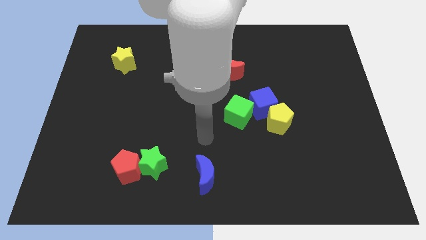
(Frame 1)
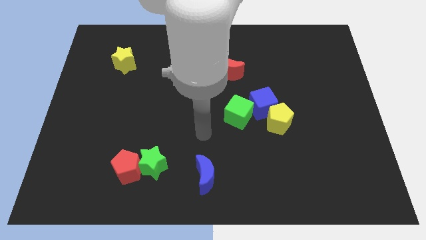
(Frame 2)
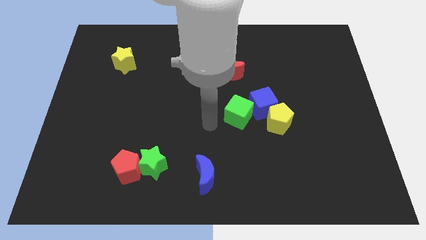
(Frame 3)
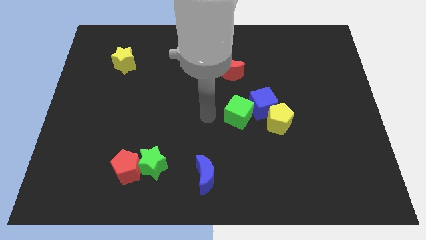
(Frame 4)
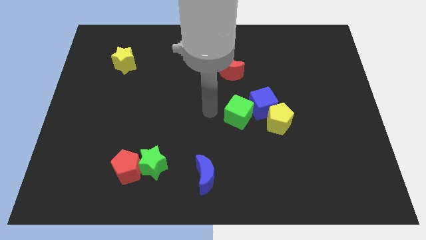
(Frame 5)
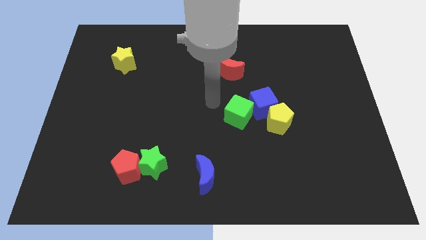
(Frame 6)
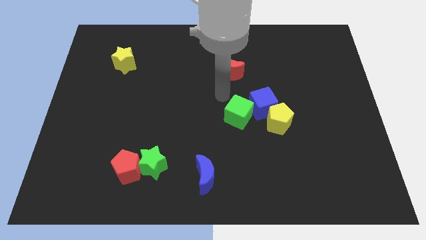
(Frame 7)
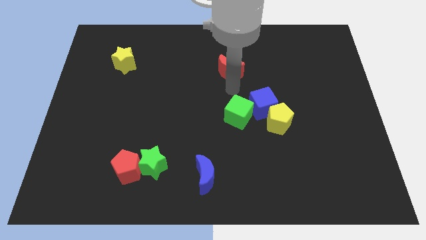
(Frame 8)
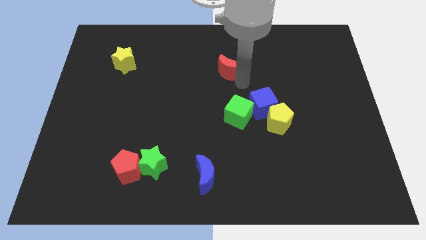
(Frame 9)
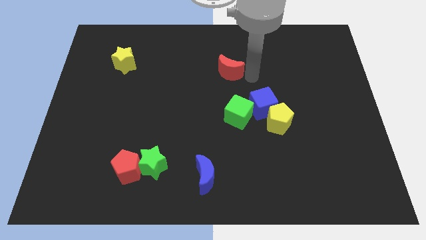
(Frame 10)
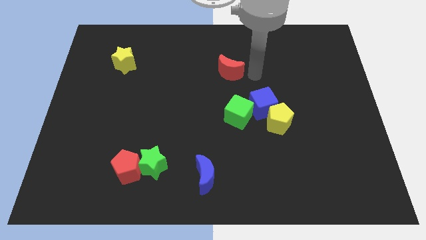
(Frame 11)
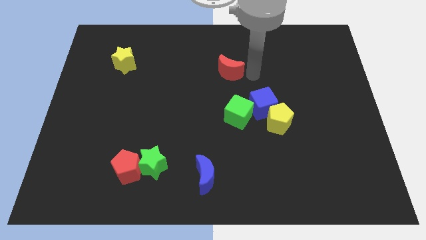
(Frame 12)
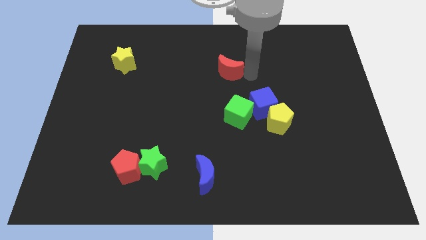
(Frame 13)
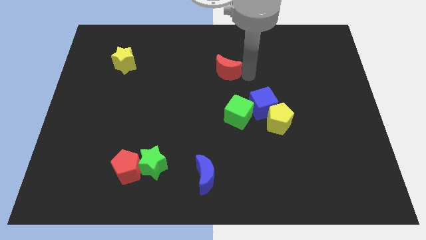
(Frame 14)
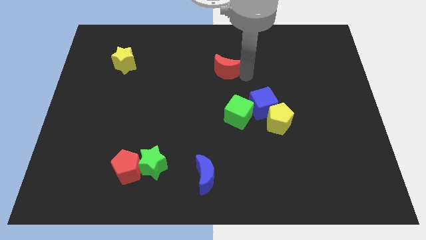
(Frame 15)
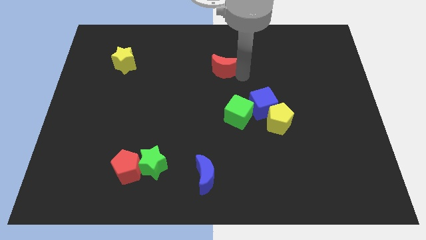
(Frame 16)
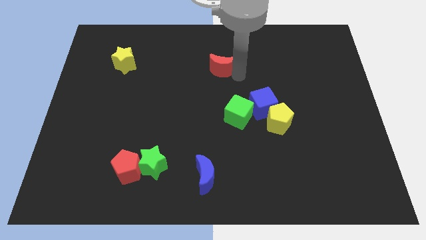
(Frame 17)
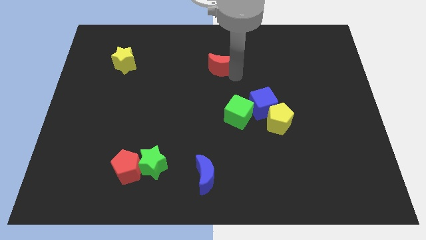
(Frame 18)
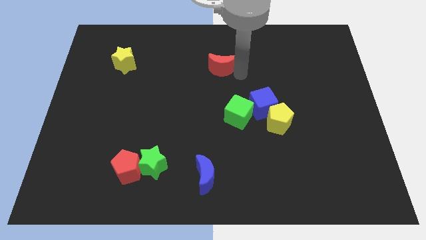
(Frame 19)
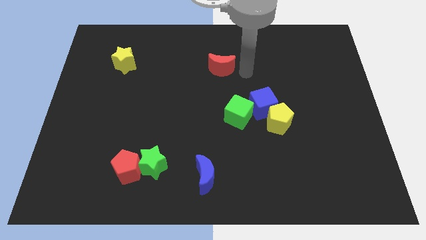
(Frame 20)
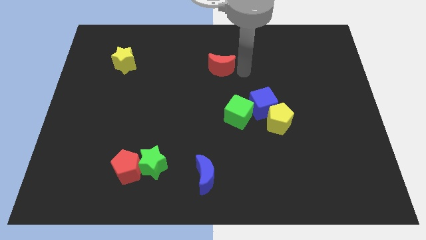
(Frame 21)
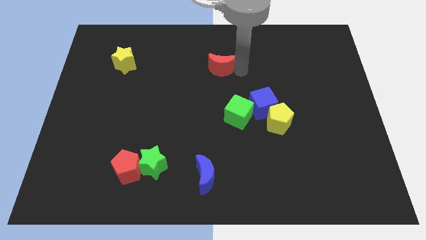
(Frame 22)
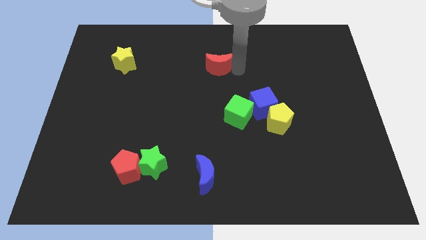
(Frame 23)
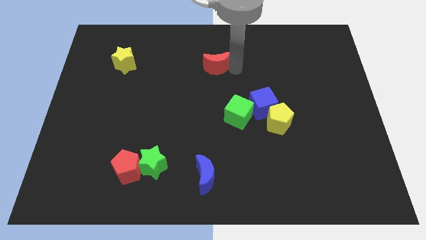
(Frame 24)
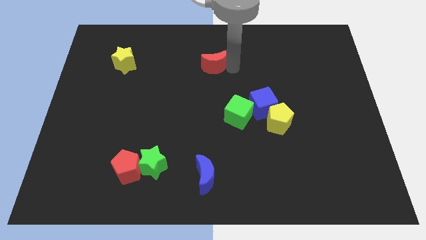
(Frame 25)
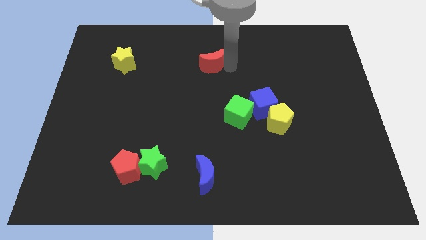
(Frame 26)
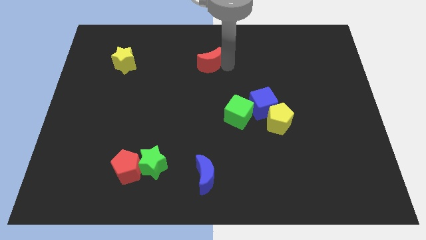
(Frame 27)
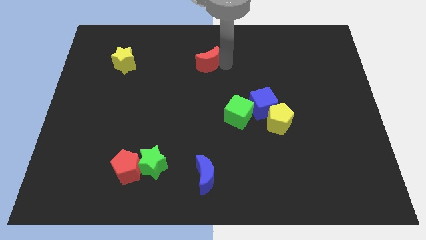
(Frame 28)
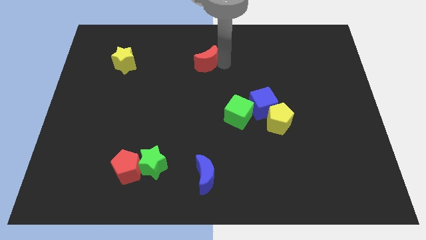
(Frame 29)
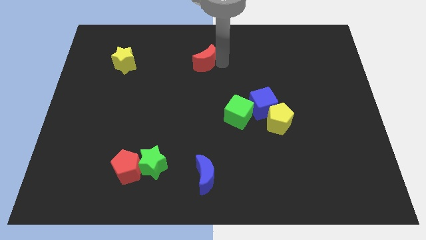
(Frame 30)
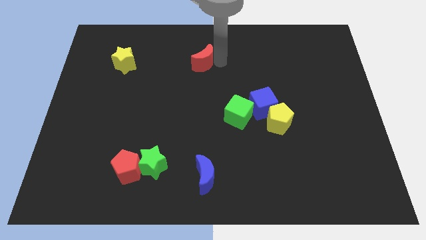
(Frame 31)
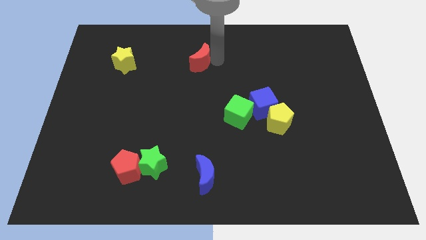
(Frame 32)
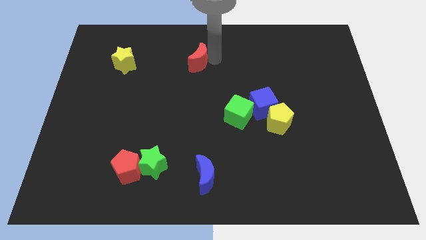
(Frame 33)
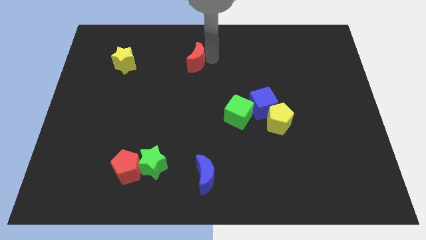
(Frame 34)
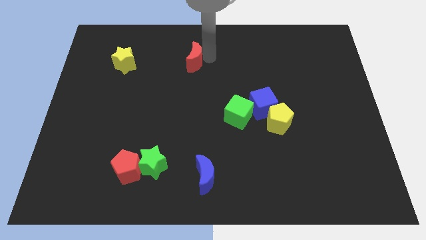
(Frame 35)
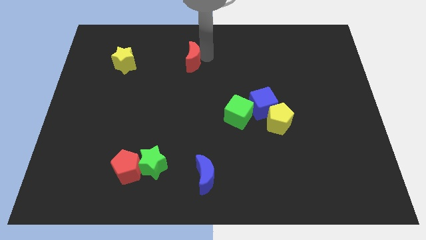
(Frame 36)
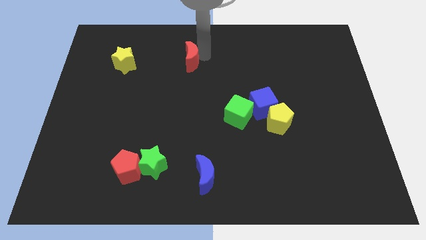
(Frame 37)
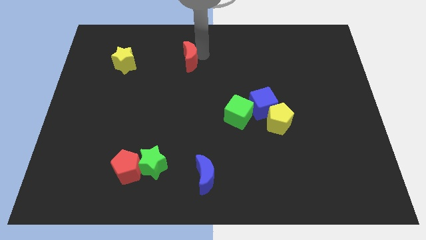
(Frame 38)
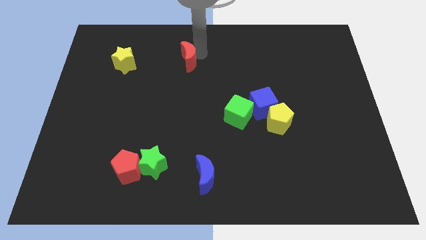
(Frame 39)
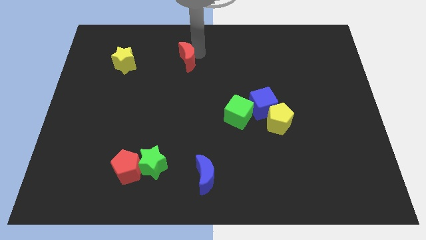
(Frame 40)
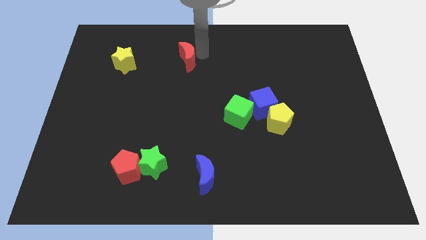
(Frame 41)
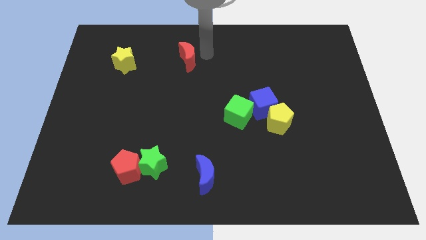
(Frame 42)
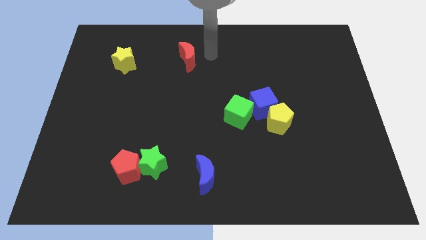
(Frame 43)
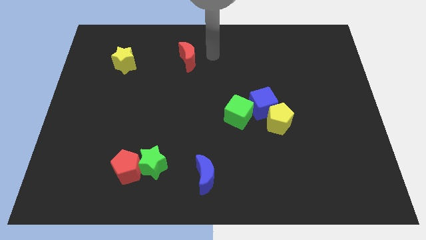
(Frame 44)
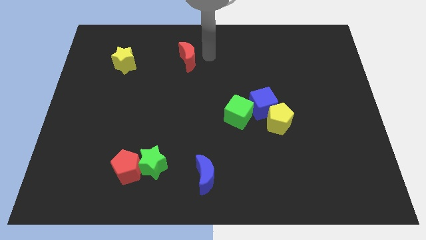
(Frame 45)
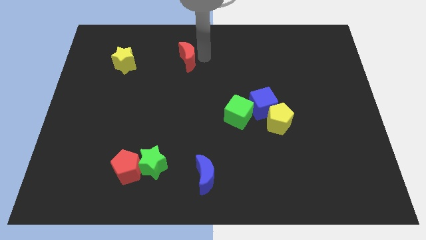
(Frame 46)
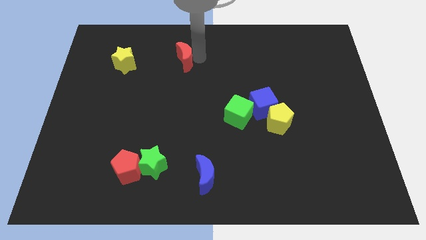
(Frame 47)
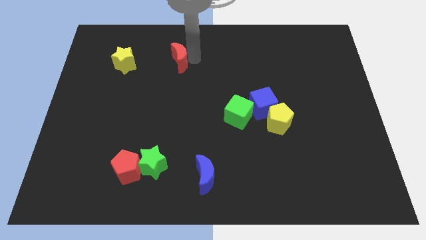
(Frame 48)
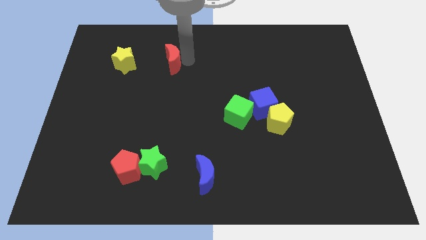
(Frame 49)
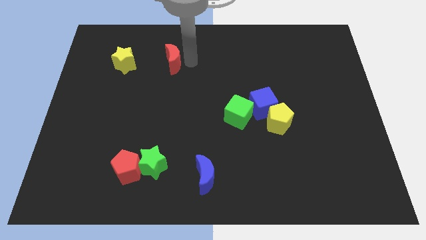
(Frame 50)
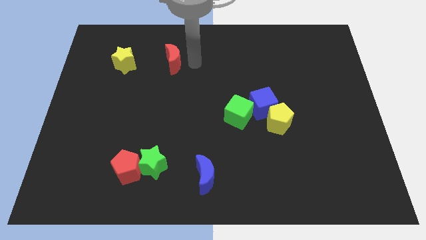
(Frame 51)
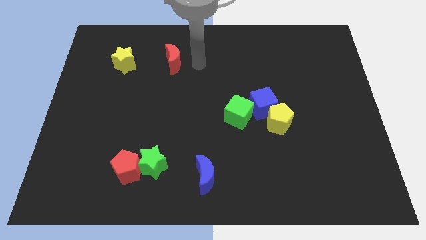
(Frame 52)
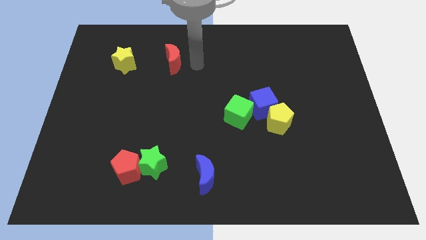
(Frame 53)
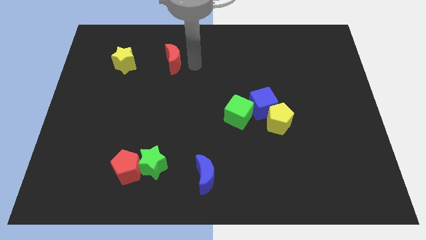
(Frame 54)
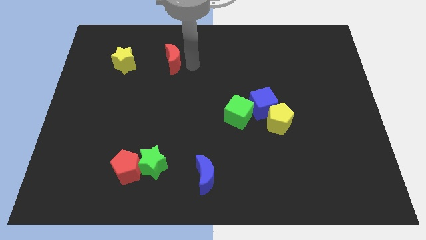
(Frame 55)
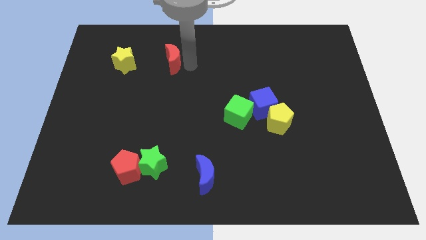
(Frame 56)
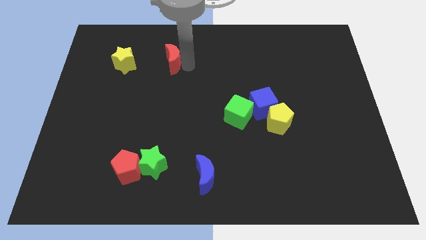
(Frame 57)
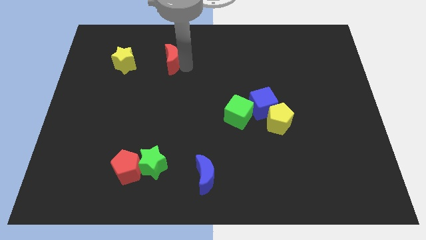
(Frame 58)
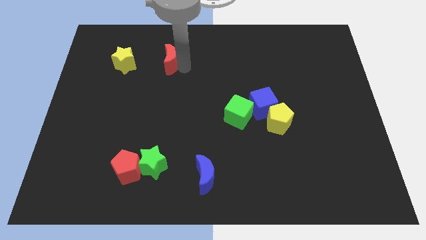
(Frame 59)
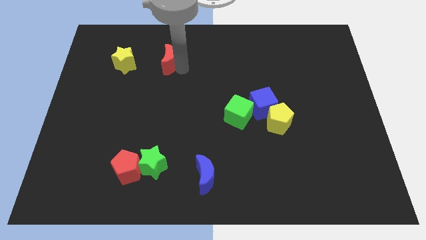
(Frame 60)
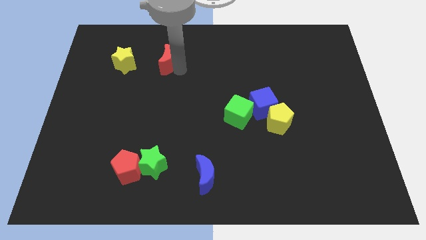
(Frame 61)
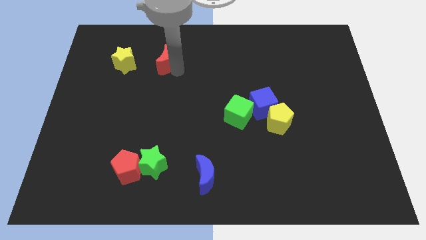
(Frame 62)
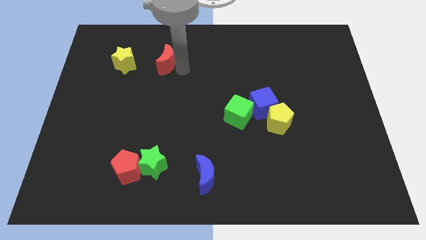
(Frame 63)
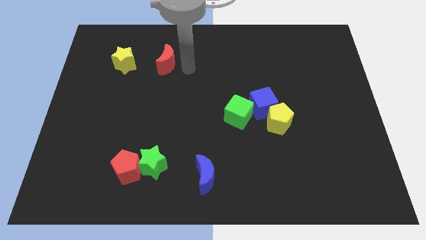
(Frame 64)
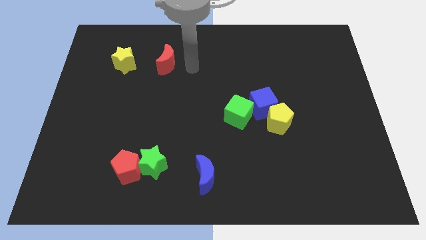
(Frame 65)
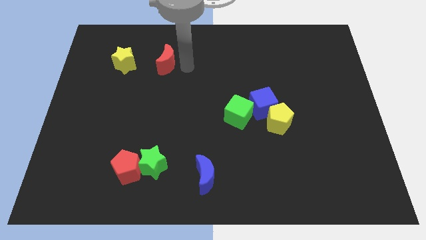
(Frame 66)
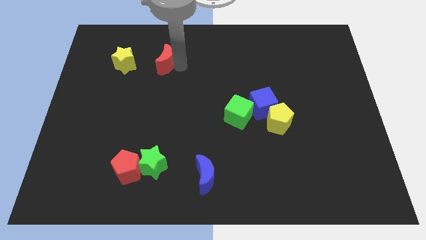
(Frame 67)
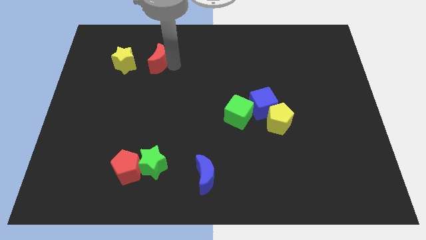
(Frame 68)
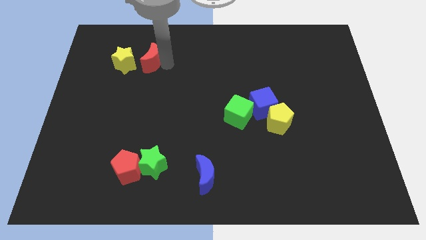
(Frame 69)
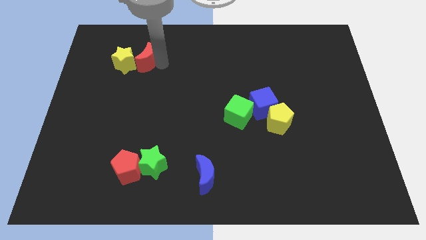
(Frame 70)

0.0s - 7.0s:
push the red moon towards the yellow star

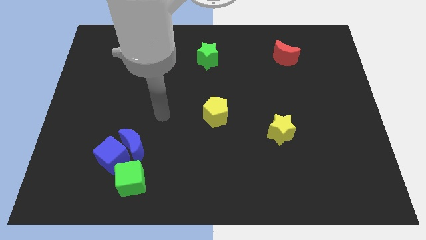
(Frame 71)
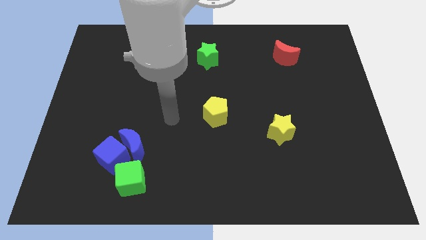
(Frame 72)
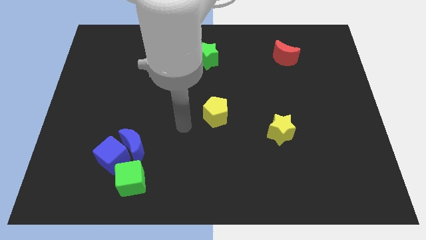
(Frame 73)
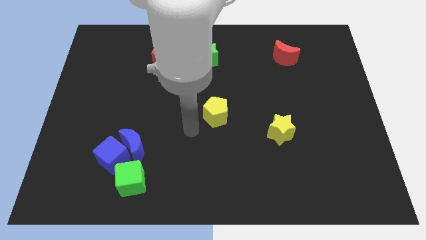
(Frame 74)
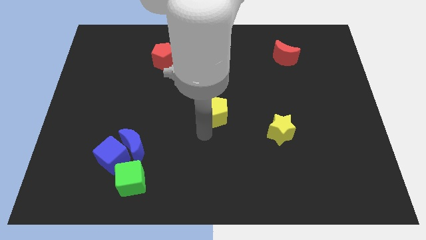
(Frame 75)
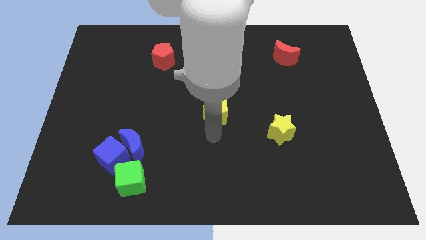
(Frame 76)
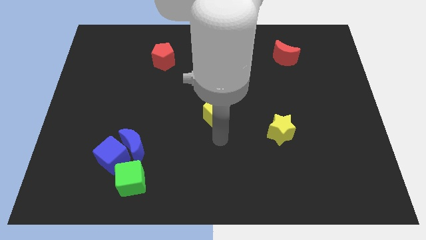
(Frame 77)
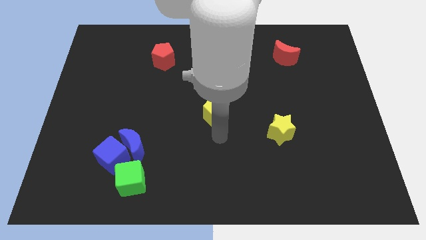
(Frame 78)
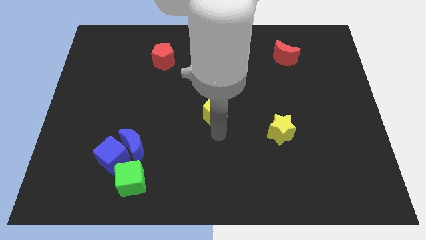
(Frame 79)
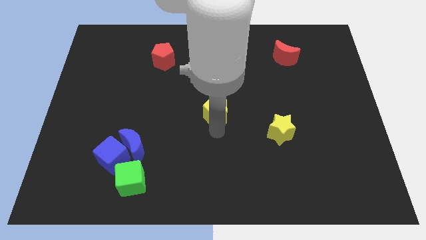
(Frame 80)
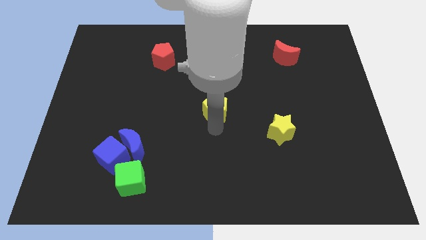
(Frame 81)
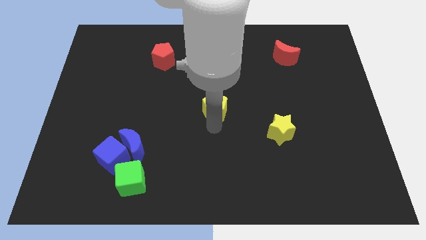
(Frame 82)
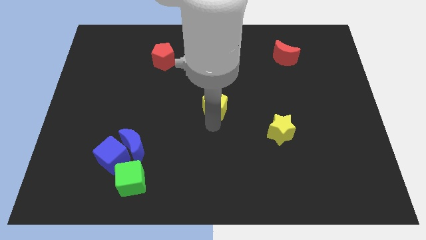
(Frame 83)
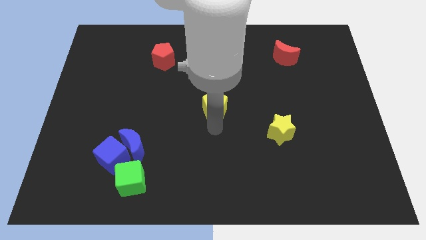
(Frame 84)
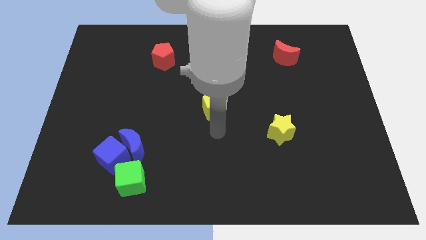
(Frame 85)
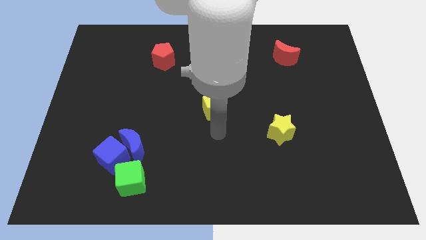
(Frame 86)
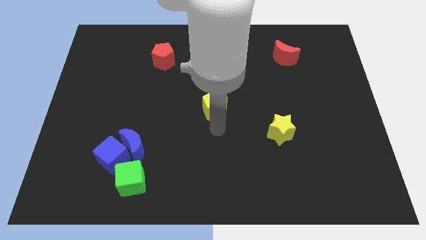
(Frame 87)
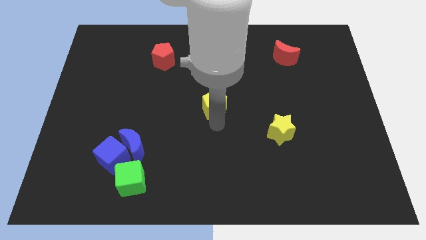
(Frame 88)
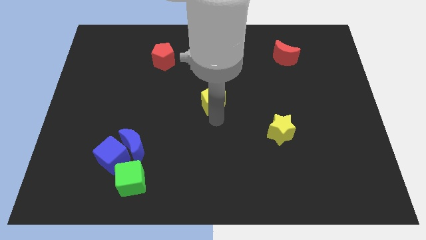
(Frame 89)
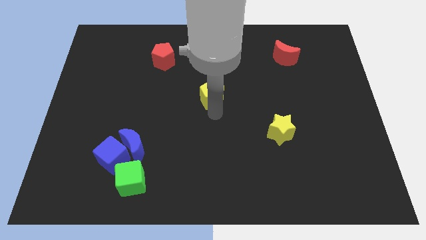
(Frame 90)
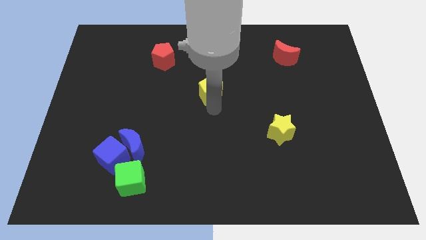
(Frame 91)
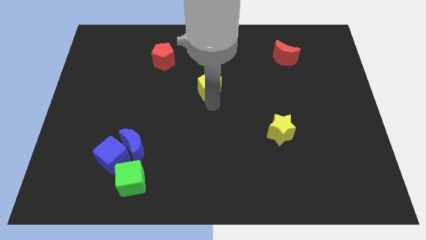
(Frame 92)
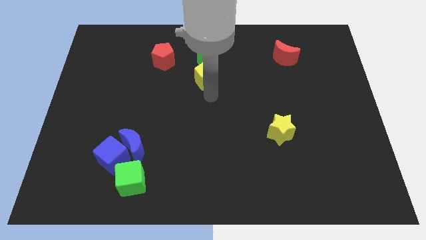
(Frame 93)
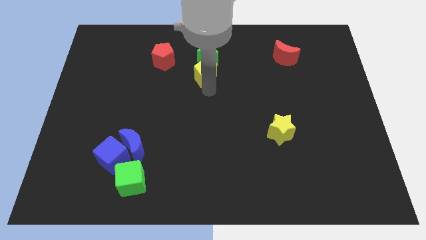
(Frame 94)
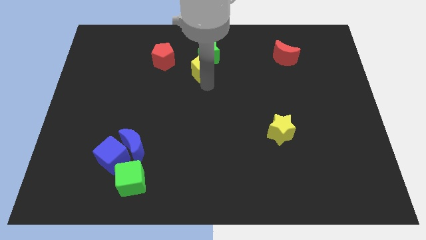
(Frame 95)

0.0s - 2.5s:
slide the yellow pentagon towards the green star
